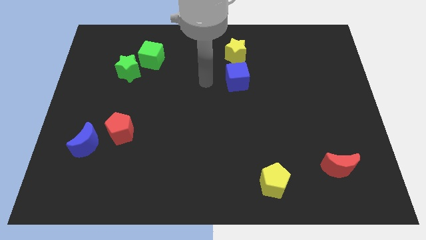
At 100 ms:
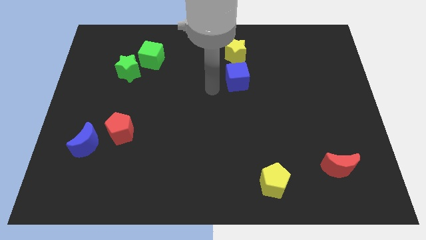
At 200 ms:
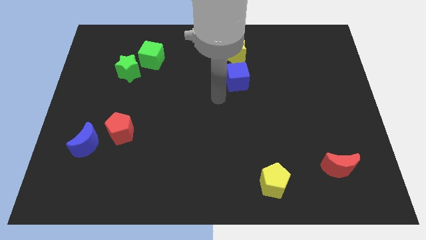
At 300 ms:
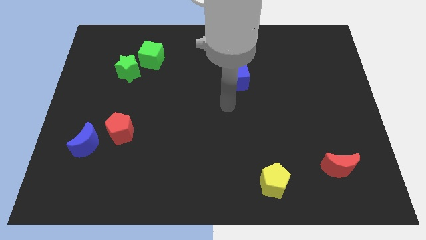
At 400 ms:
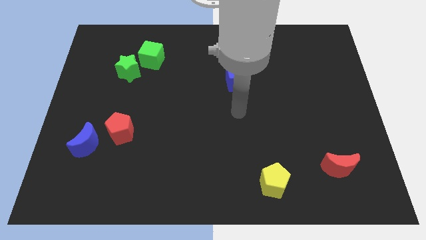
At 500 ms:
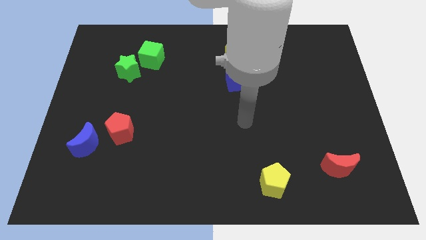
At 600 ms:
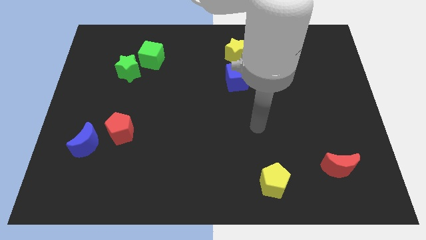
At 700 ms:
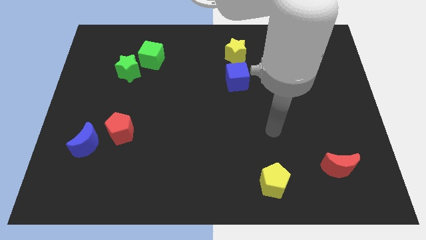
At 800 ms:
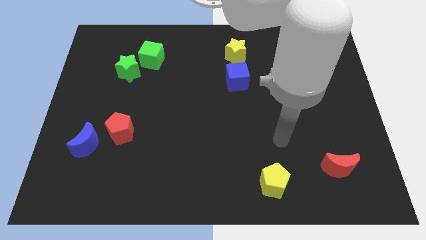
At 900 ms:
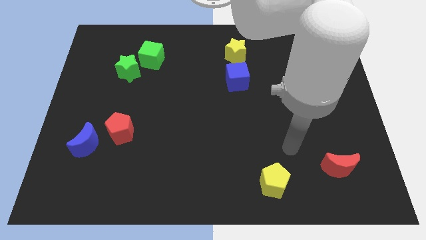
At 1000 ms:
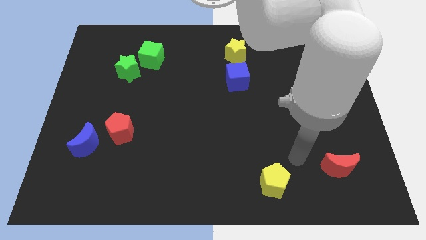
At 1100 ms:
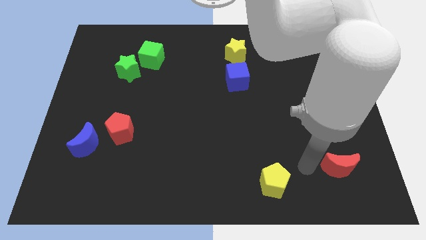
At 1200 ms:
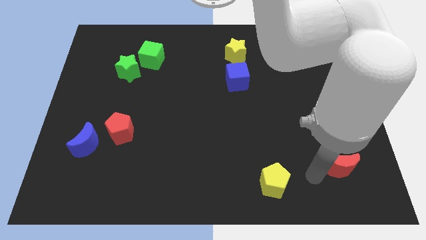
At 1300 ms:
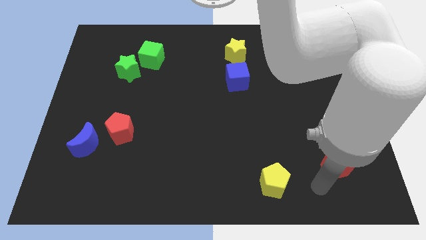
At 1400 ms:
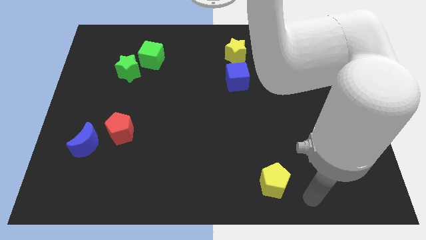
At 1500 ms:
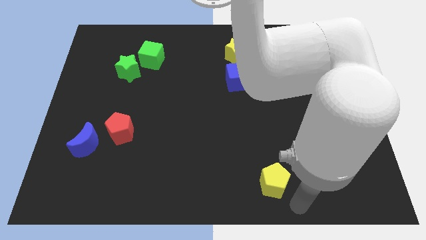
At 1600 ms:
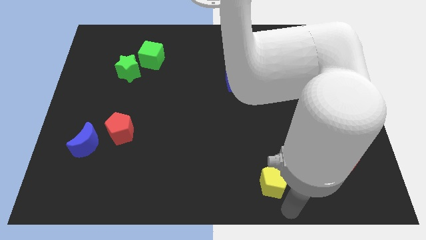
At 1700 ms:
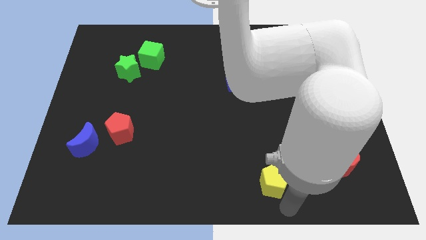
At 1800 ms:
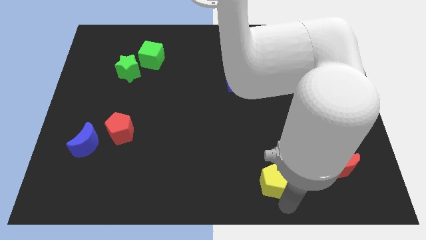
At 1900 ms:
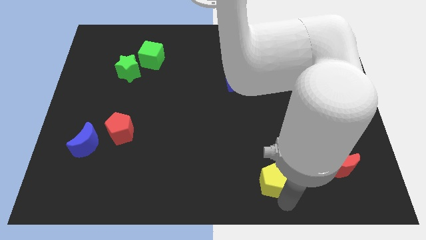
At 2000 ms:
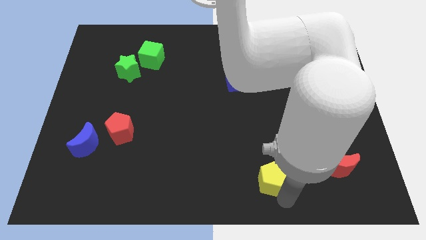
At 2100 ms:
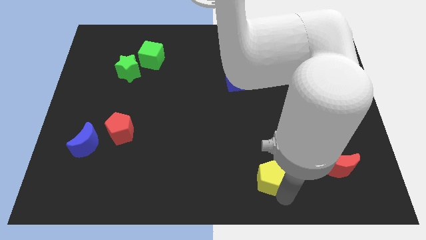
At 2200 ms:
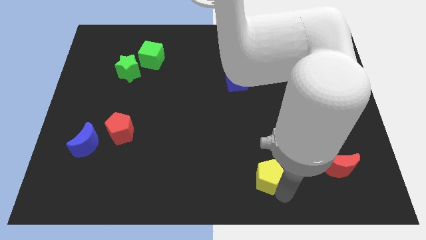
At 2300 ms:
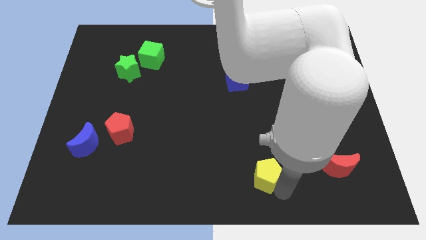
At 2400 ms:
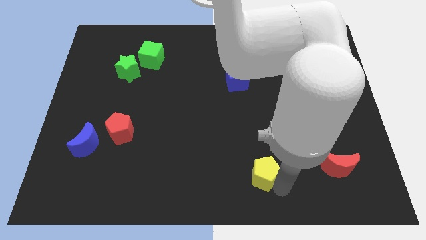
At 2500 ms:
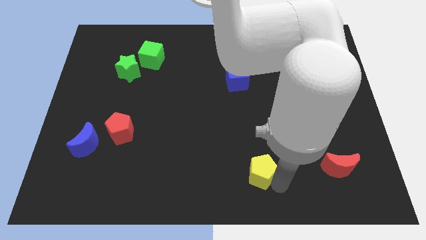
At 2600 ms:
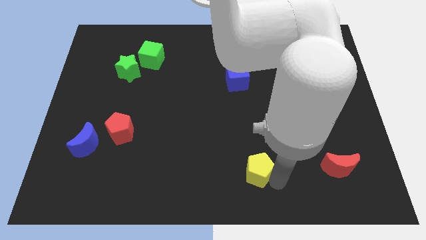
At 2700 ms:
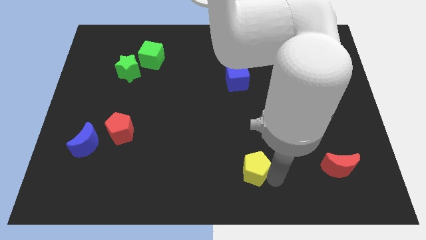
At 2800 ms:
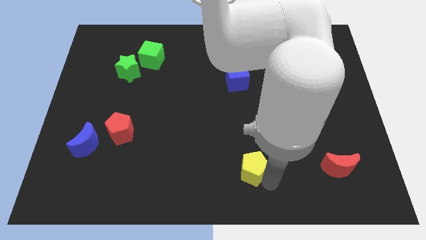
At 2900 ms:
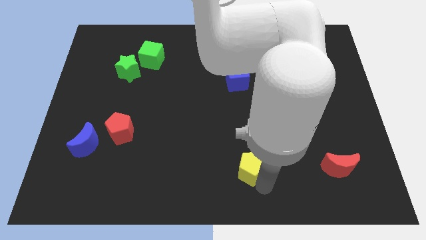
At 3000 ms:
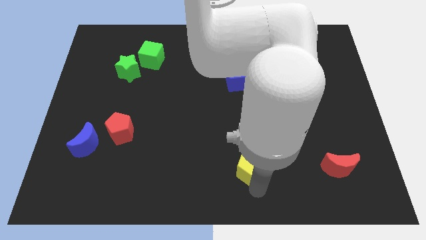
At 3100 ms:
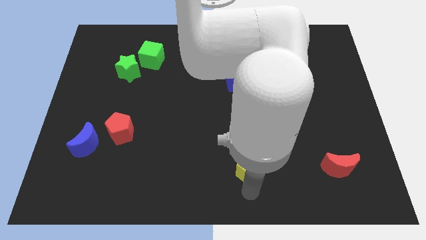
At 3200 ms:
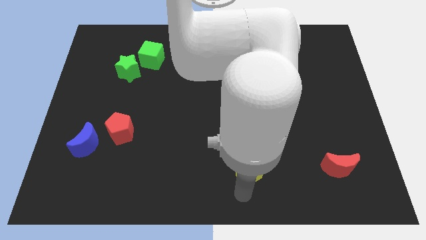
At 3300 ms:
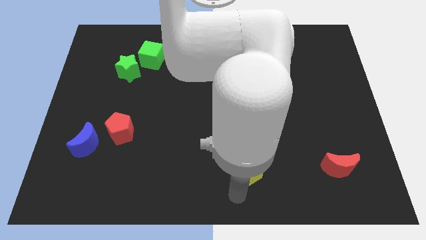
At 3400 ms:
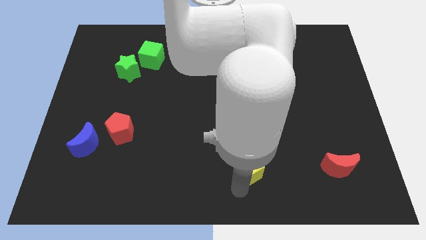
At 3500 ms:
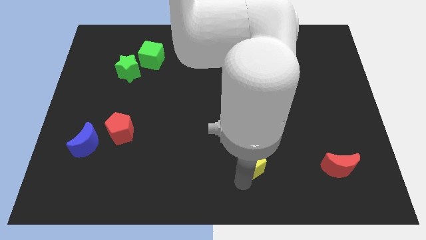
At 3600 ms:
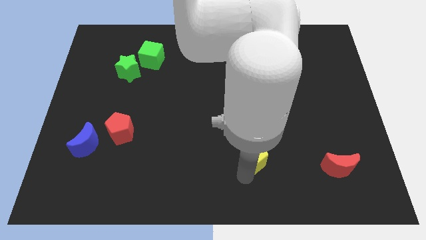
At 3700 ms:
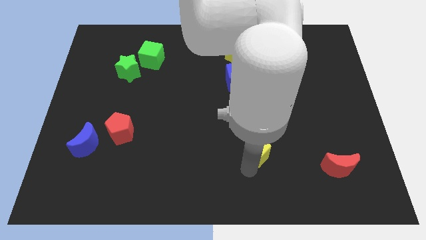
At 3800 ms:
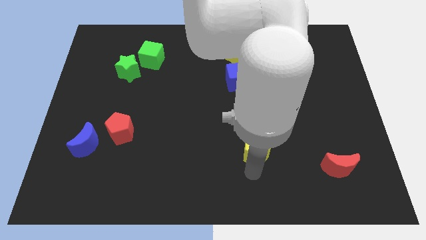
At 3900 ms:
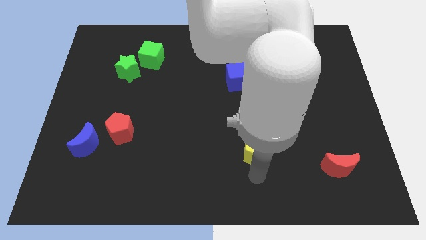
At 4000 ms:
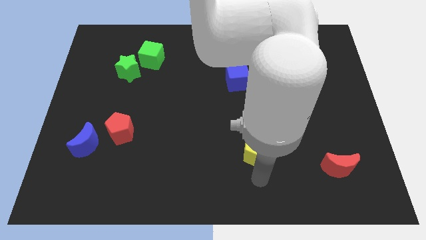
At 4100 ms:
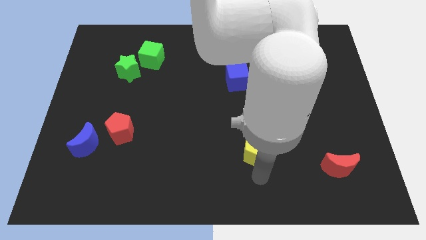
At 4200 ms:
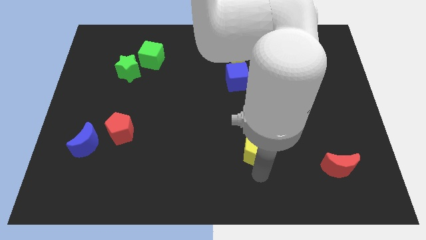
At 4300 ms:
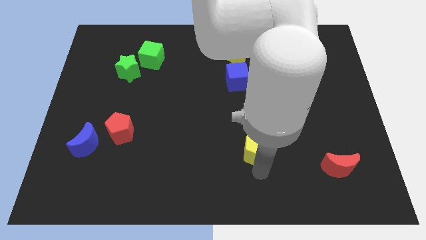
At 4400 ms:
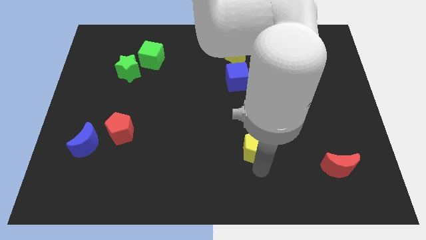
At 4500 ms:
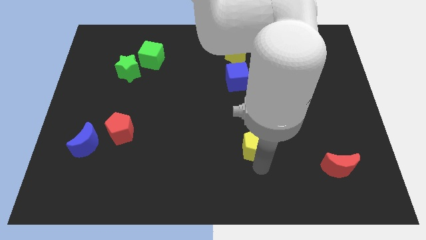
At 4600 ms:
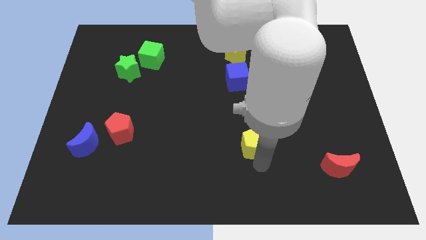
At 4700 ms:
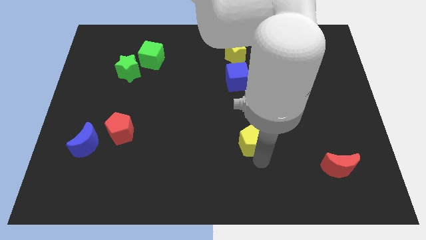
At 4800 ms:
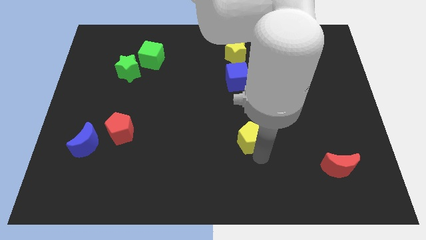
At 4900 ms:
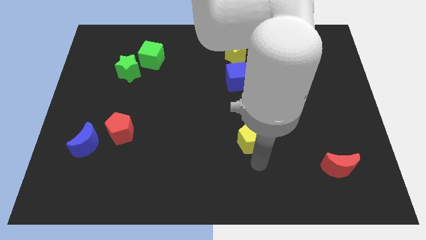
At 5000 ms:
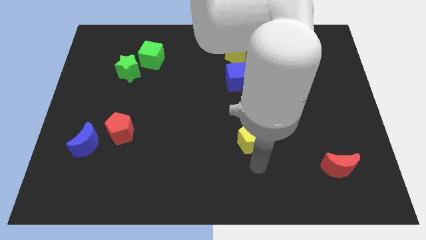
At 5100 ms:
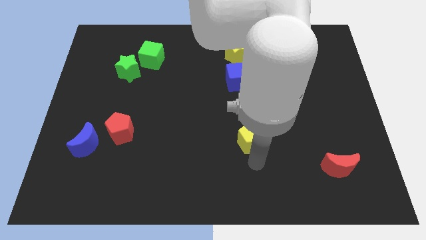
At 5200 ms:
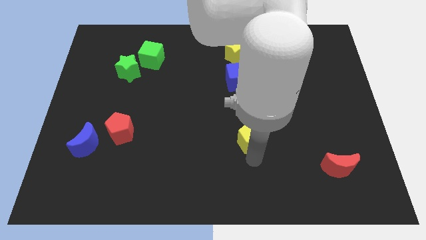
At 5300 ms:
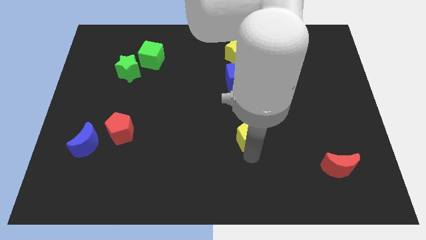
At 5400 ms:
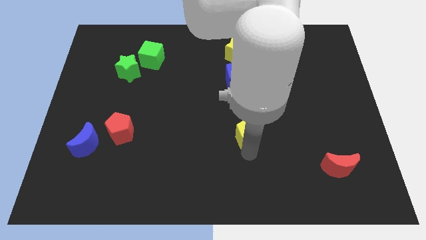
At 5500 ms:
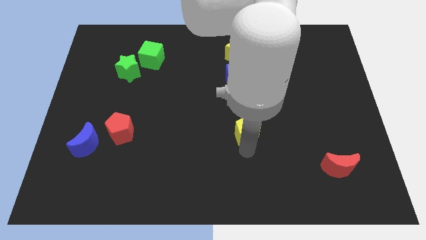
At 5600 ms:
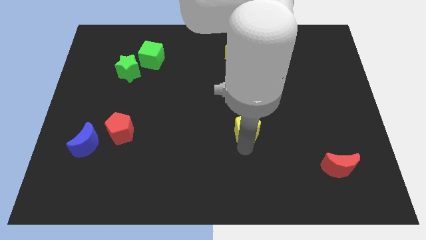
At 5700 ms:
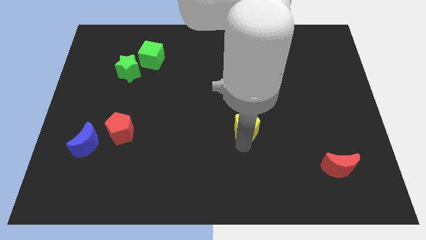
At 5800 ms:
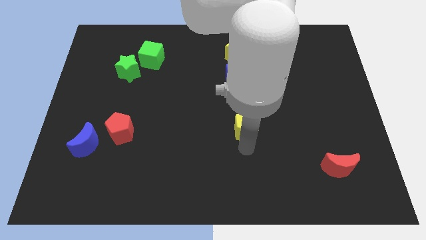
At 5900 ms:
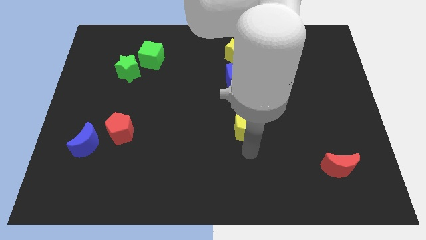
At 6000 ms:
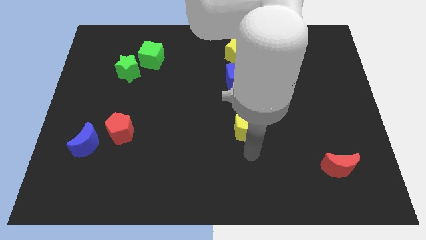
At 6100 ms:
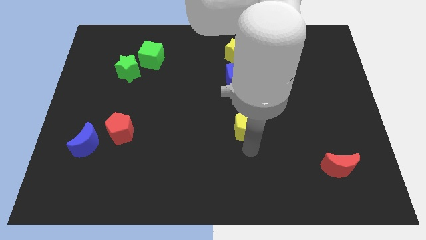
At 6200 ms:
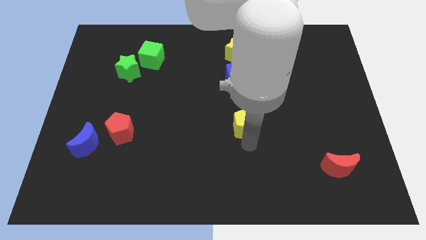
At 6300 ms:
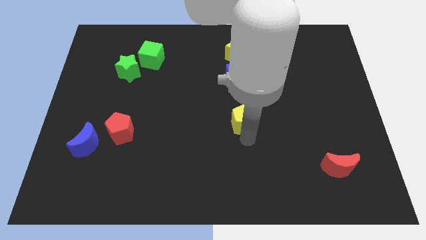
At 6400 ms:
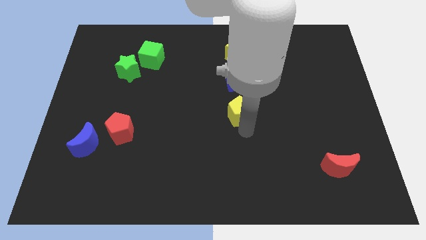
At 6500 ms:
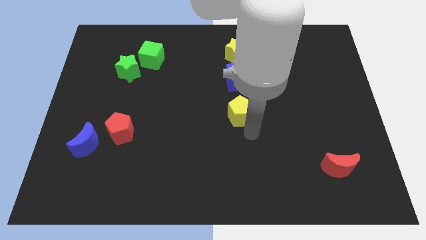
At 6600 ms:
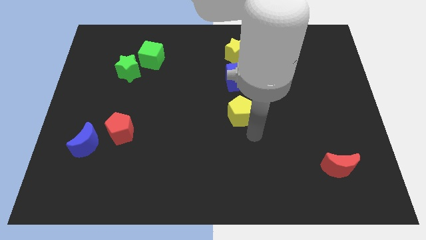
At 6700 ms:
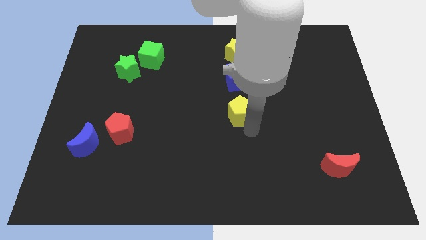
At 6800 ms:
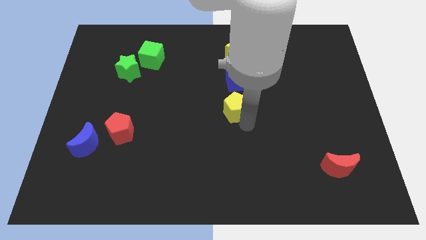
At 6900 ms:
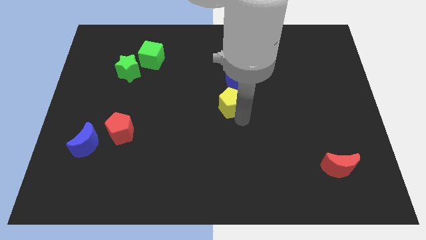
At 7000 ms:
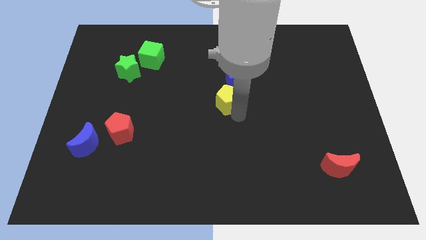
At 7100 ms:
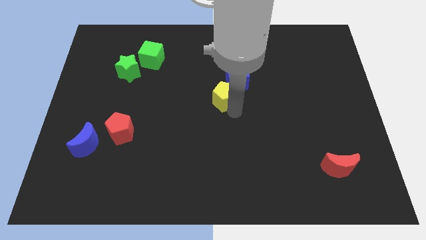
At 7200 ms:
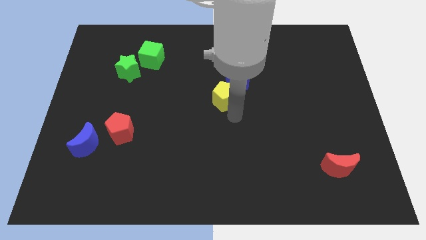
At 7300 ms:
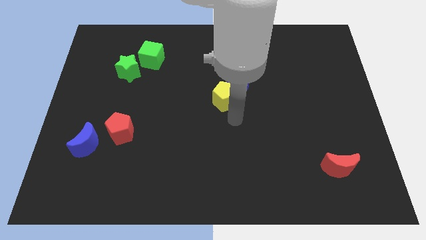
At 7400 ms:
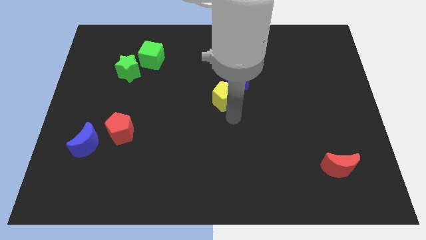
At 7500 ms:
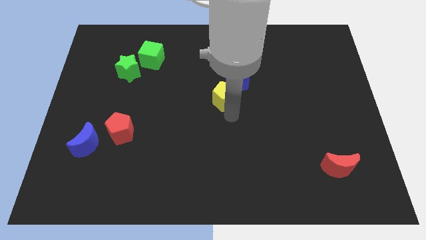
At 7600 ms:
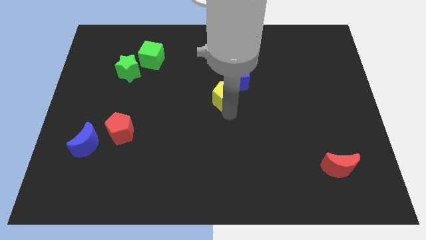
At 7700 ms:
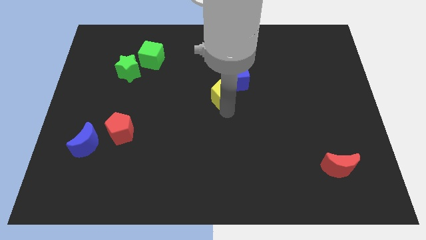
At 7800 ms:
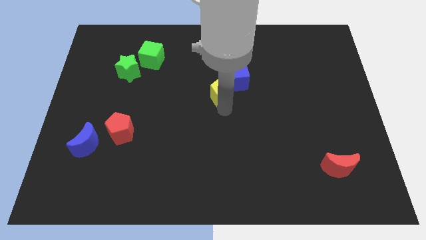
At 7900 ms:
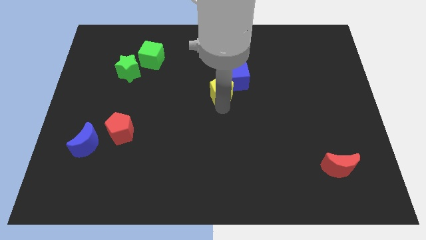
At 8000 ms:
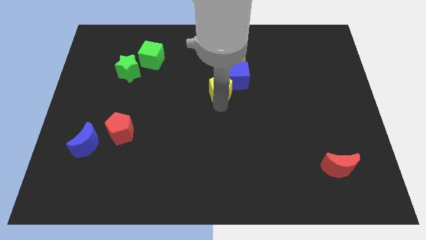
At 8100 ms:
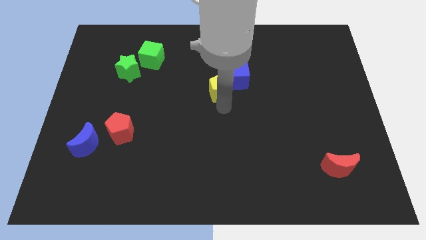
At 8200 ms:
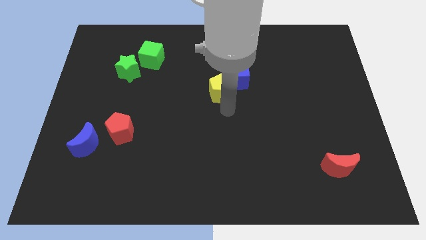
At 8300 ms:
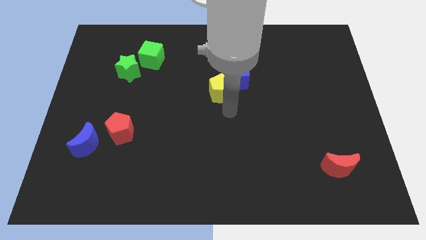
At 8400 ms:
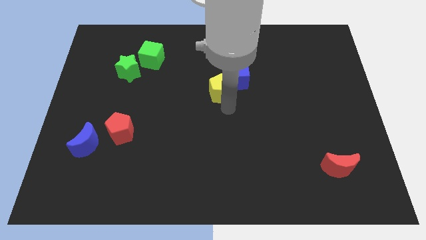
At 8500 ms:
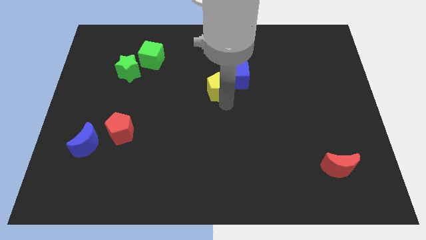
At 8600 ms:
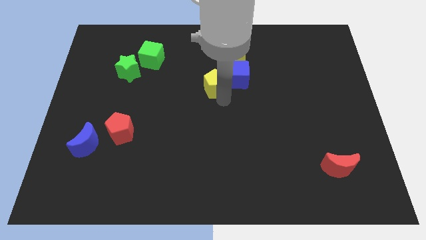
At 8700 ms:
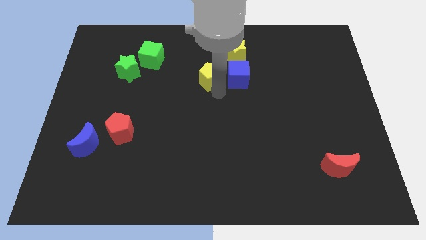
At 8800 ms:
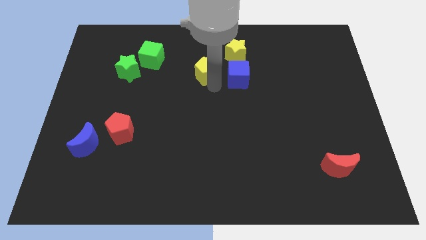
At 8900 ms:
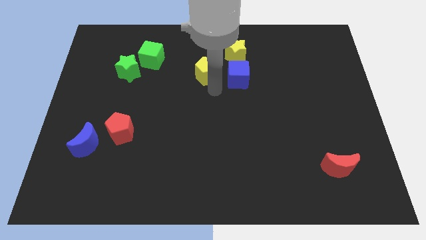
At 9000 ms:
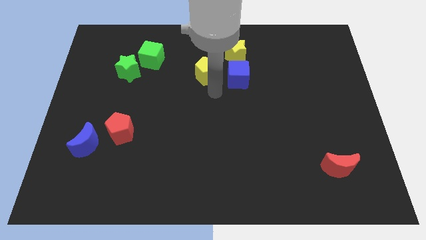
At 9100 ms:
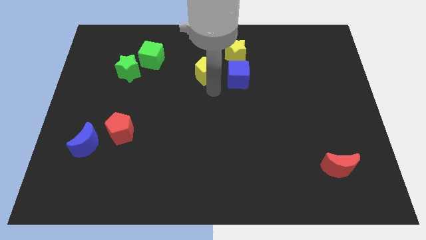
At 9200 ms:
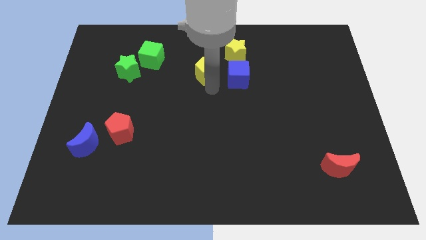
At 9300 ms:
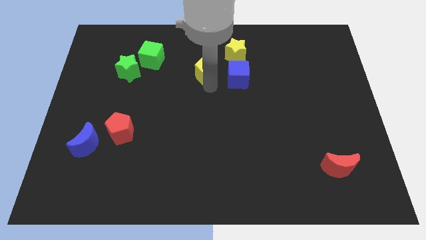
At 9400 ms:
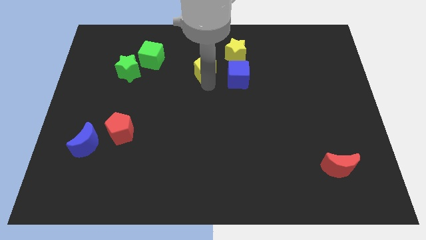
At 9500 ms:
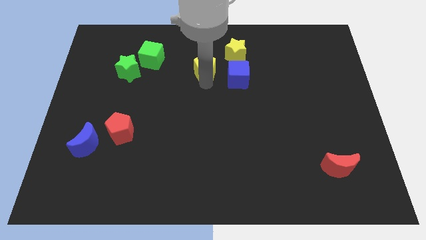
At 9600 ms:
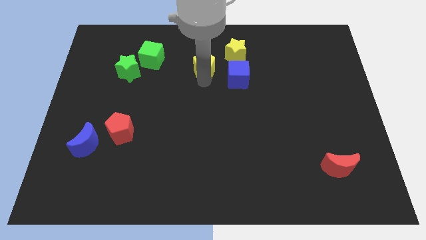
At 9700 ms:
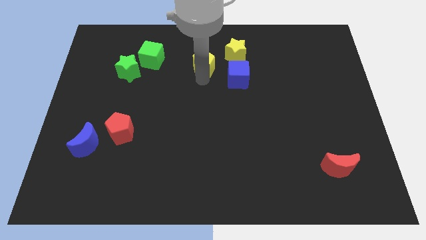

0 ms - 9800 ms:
move the yellow pentagon to the left of the yellow star
